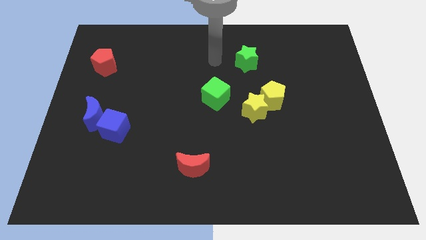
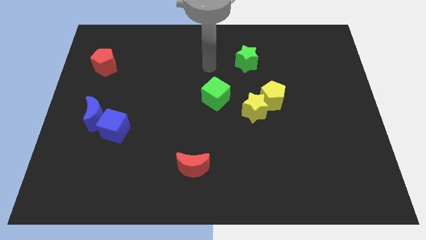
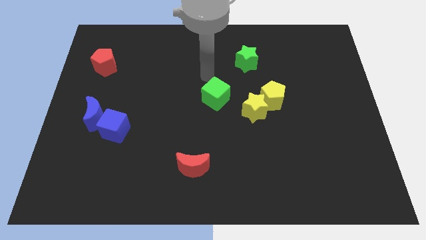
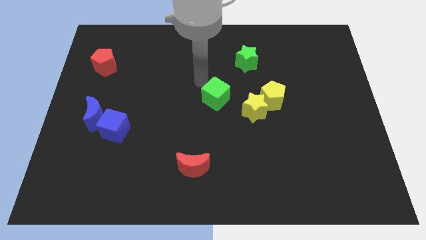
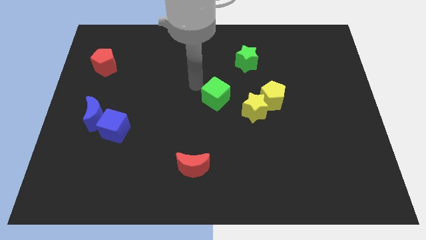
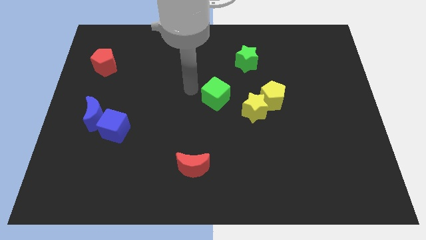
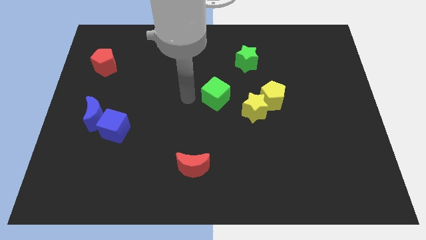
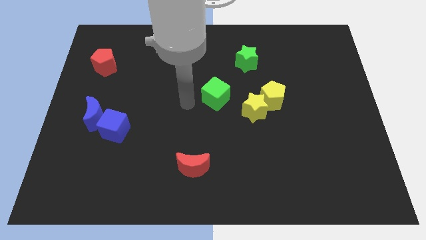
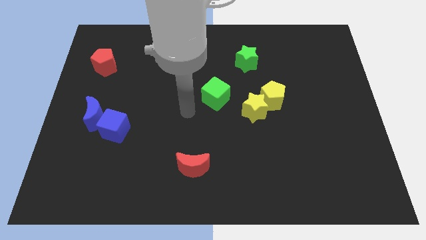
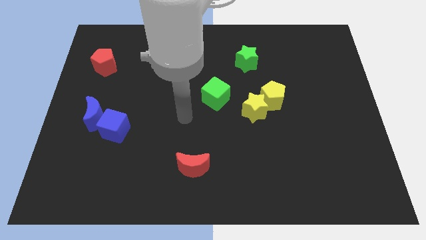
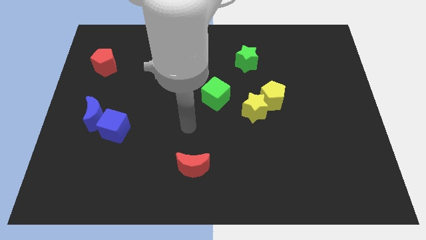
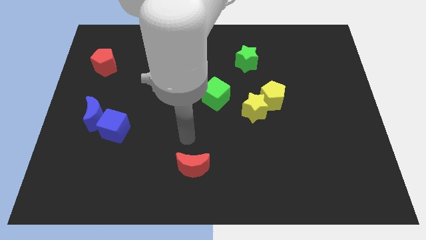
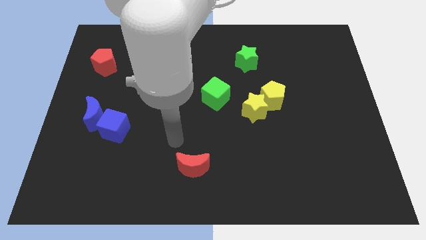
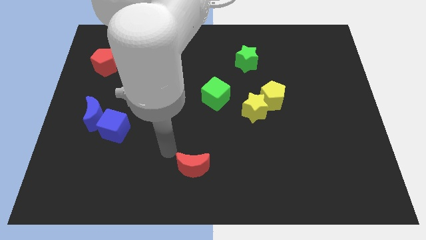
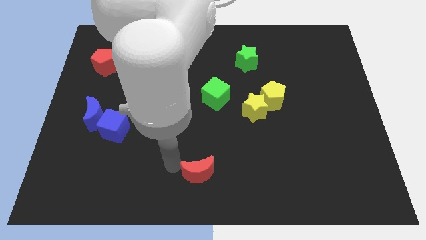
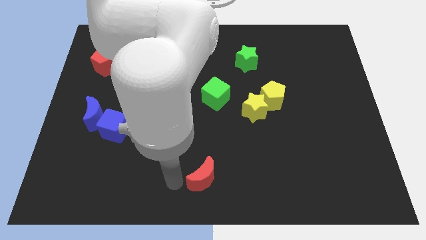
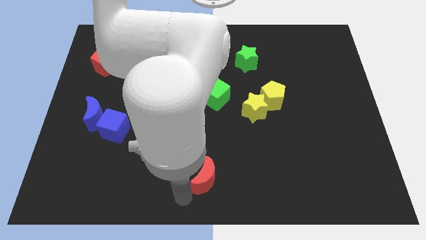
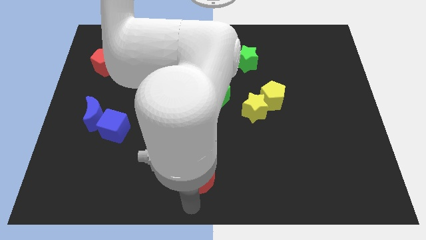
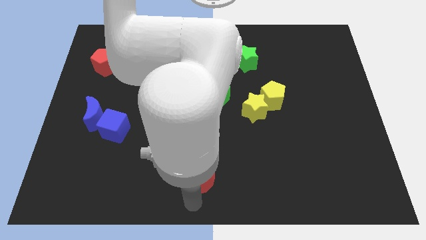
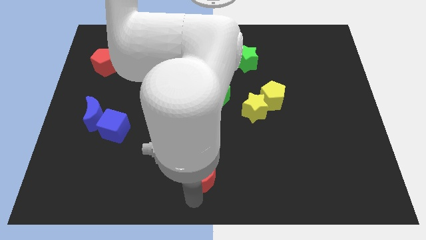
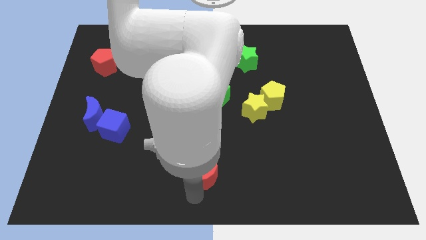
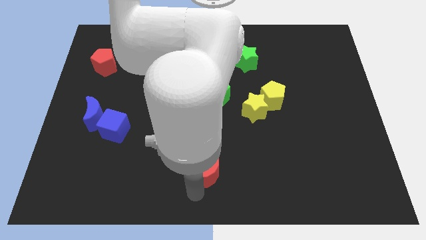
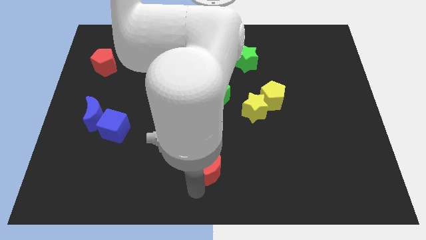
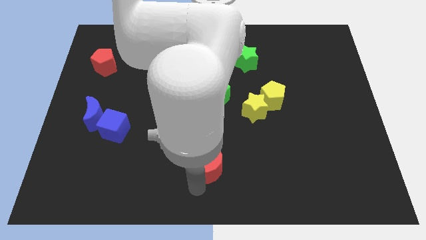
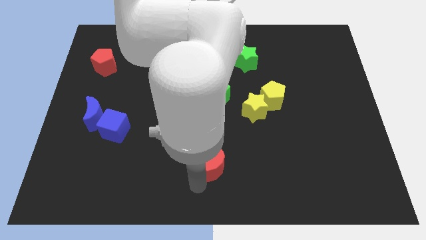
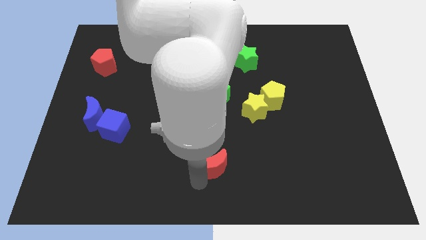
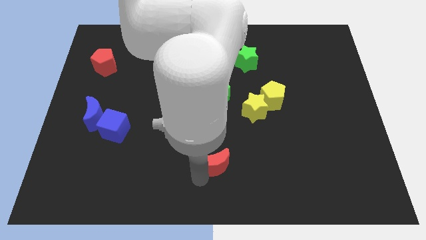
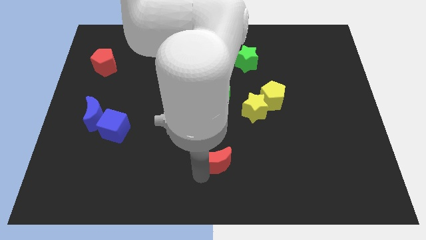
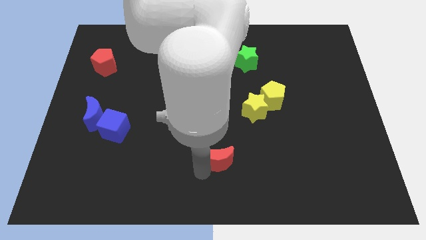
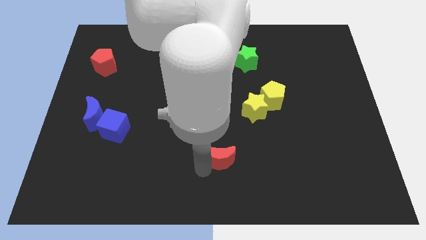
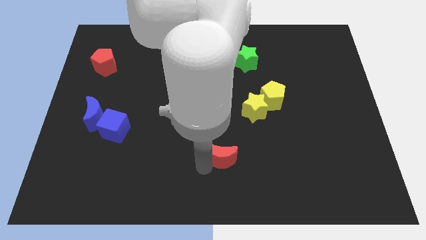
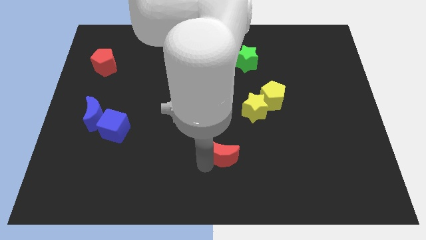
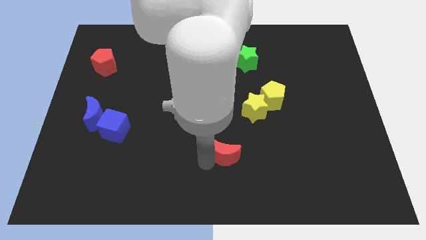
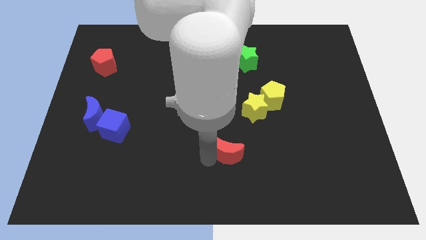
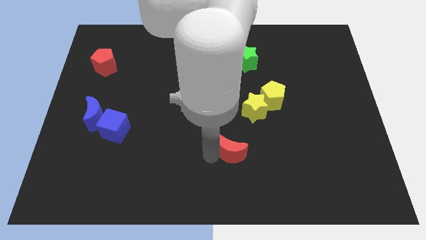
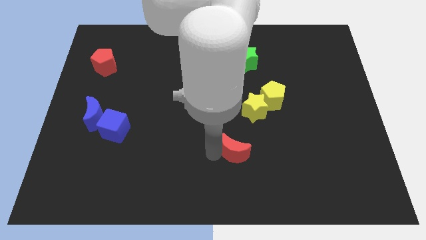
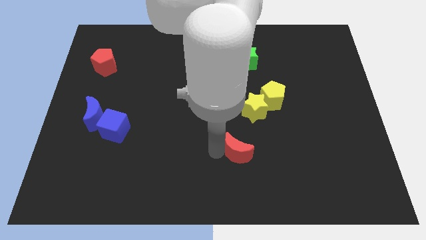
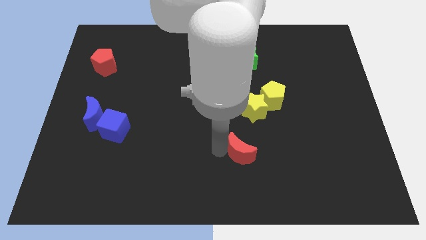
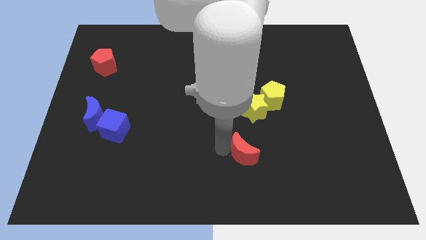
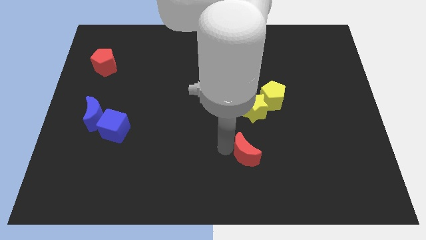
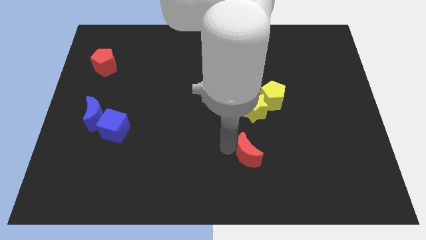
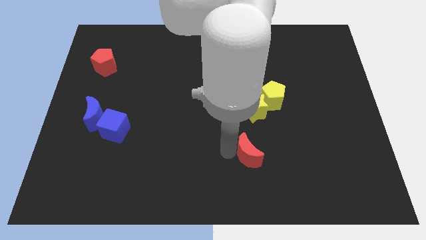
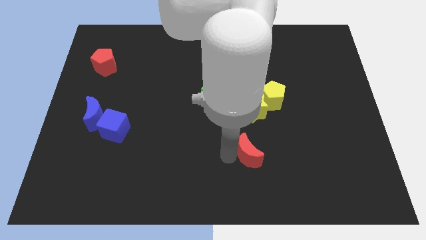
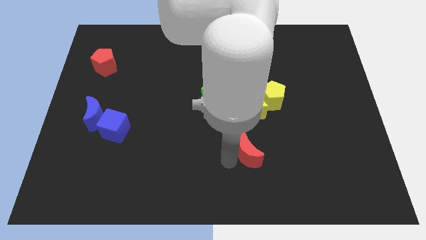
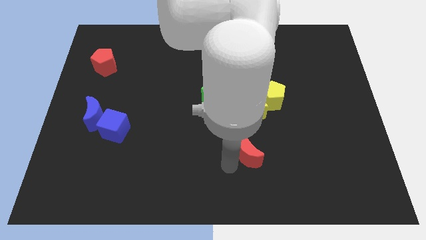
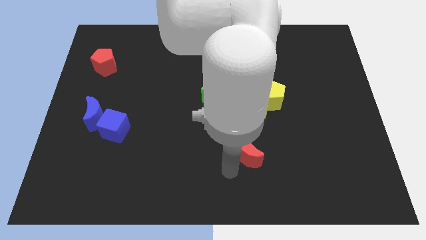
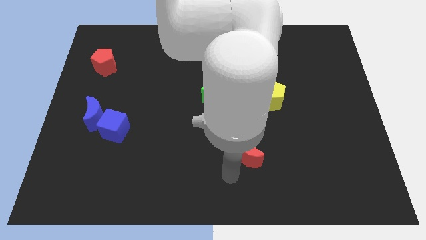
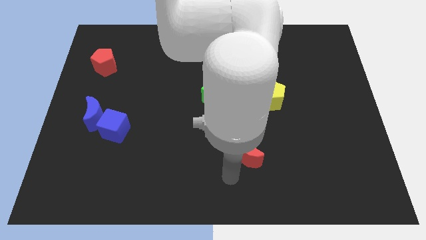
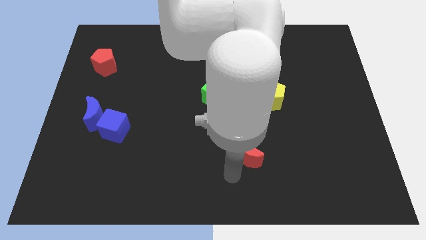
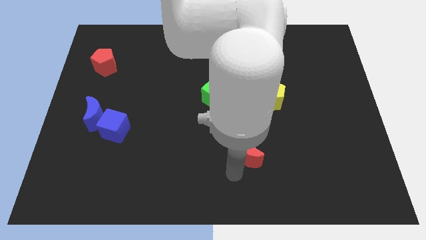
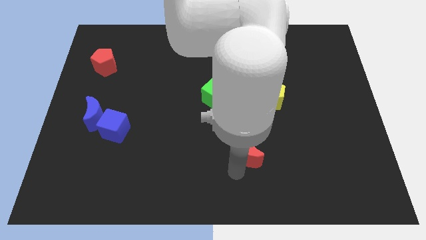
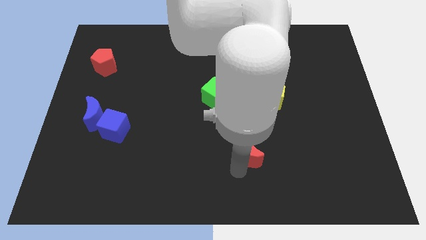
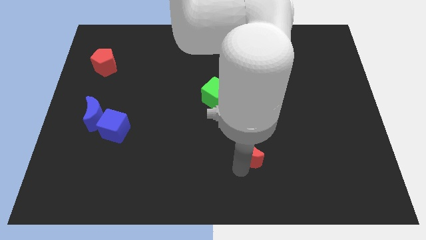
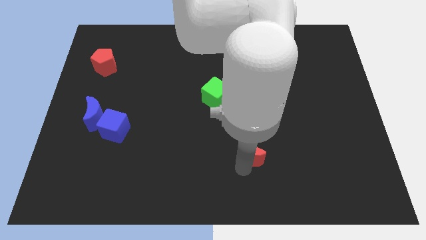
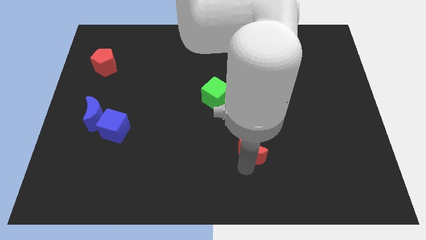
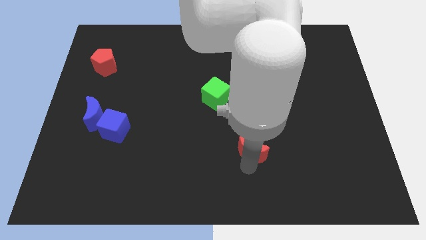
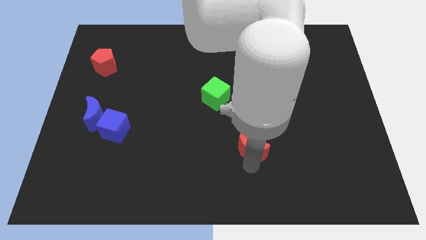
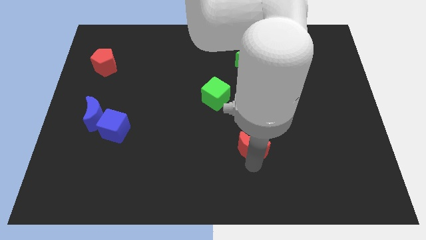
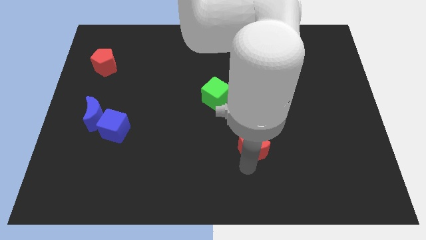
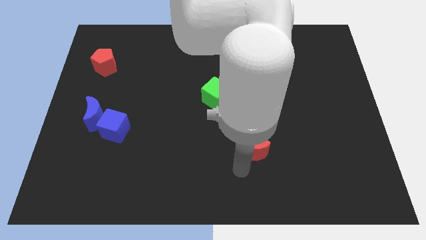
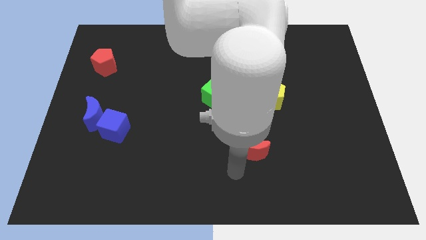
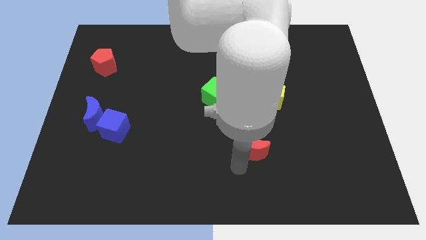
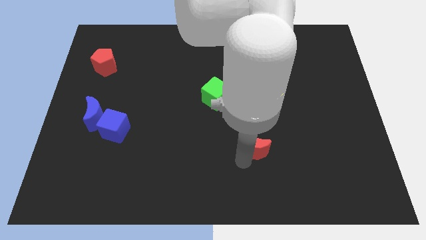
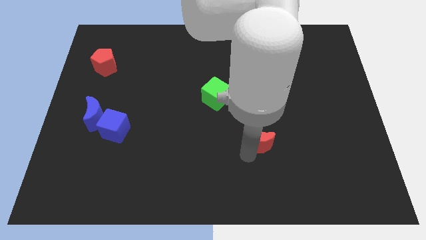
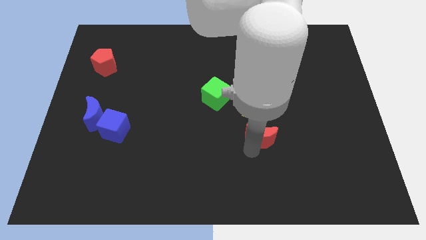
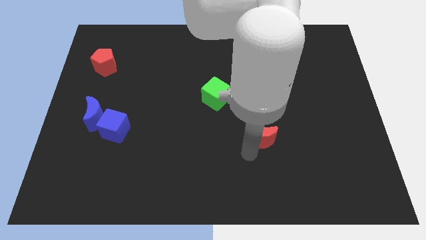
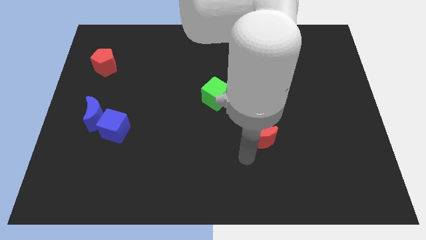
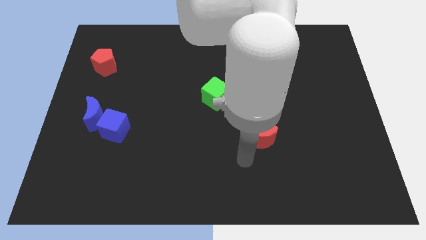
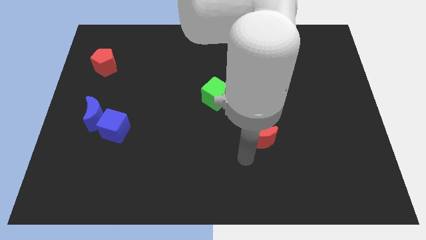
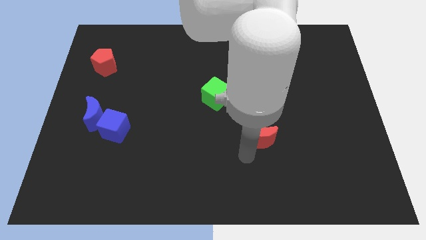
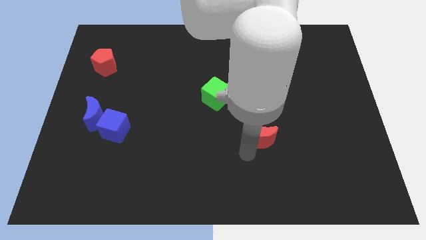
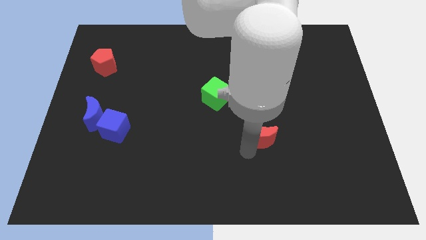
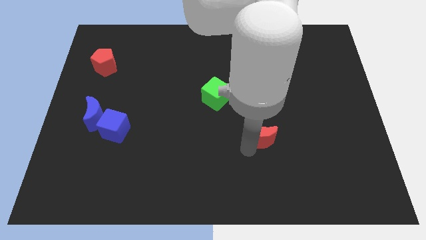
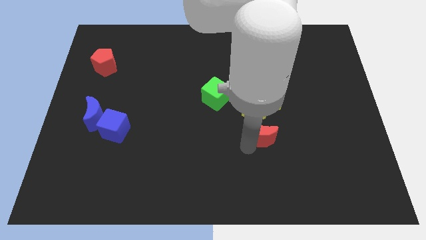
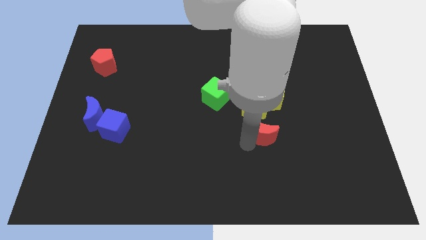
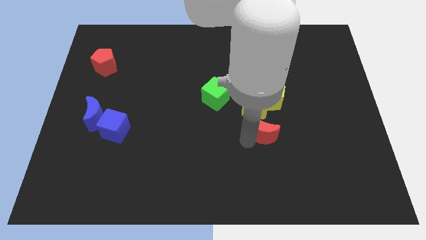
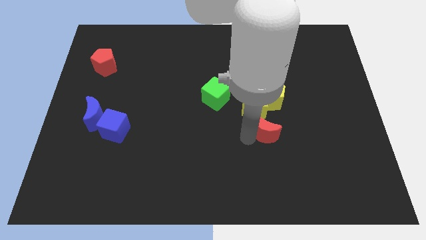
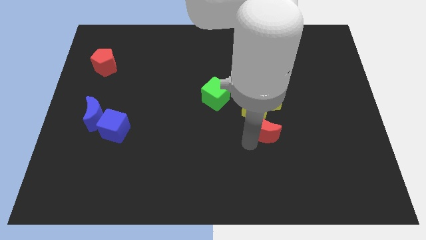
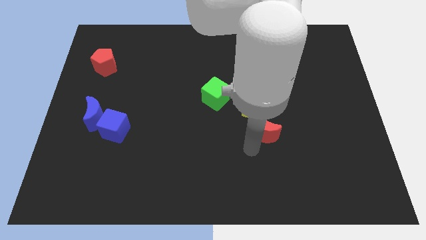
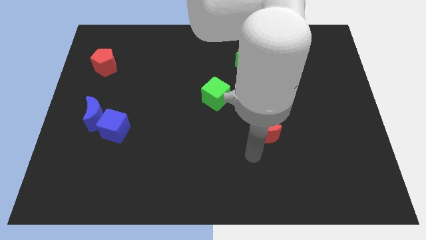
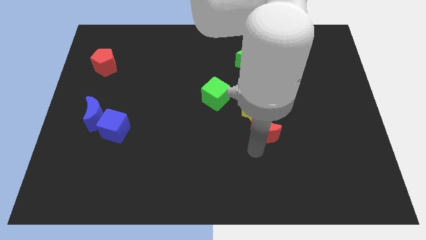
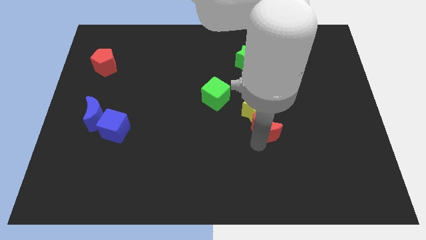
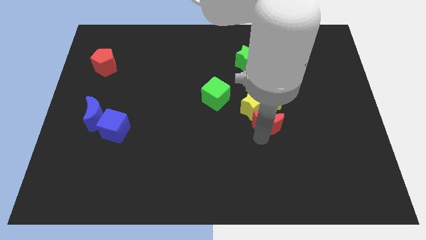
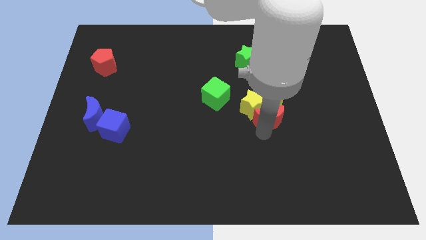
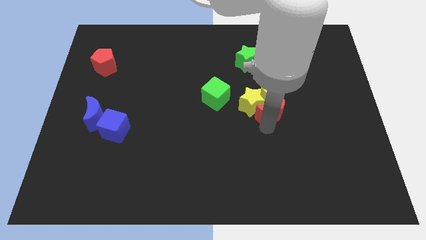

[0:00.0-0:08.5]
put the red moon towards the yellow pentagon
